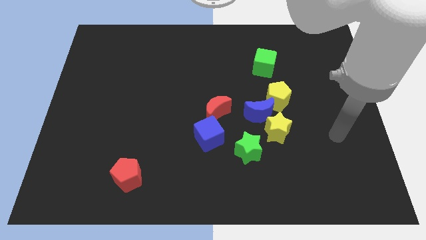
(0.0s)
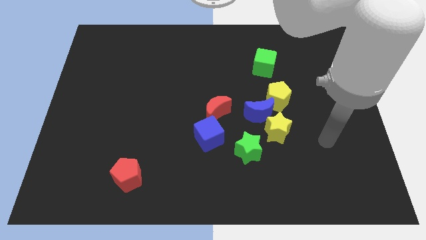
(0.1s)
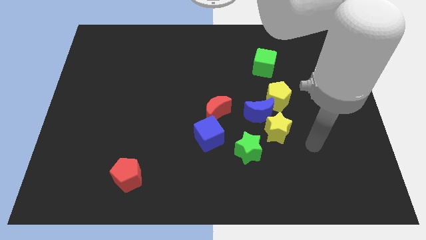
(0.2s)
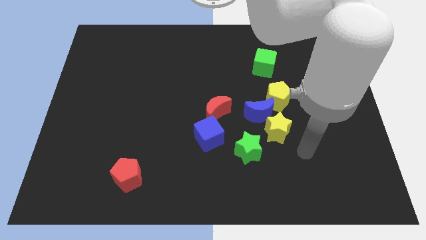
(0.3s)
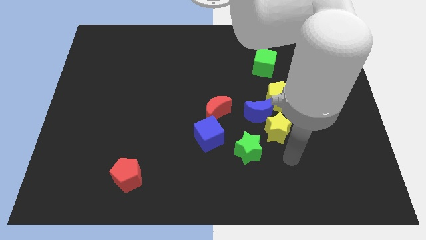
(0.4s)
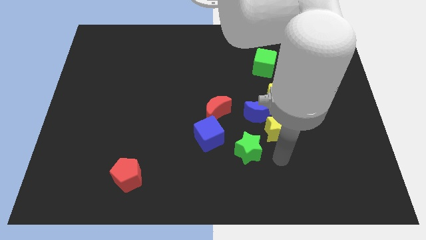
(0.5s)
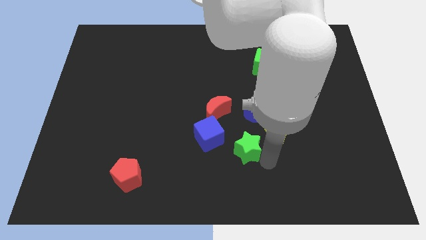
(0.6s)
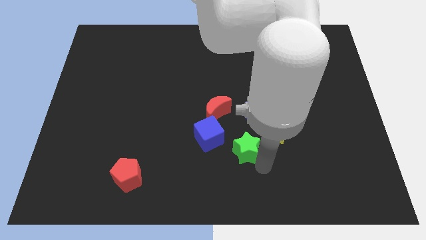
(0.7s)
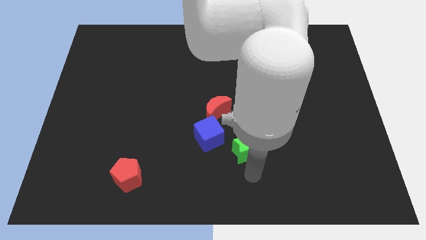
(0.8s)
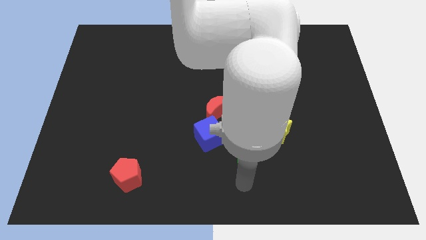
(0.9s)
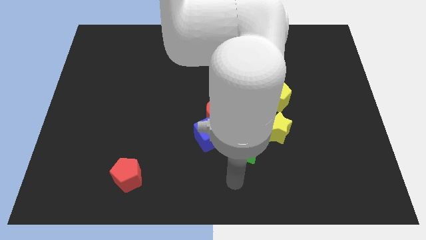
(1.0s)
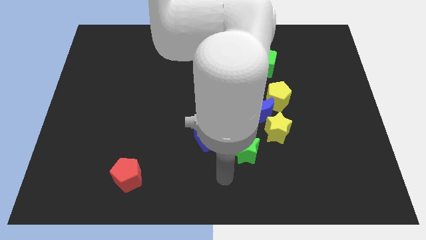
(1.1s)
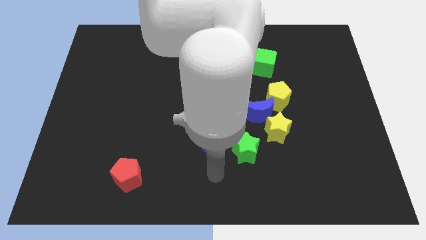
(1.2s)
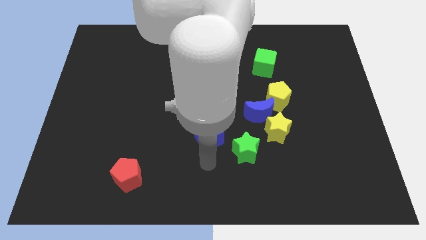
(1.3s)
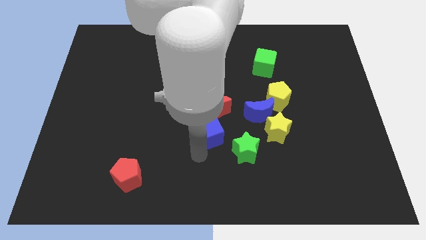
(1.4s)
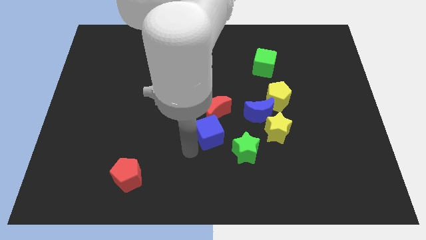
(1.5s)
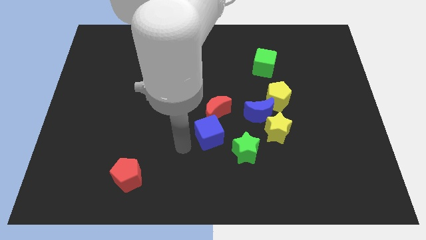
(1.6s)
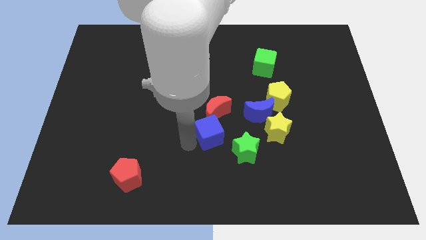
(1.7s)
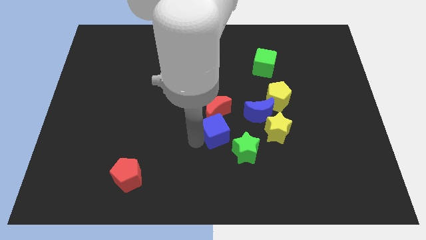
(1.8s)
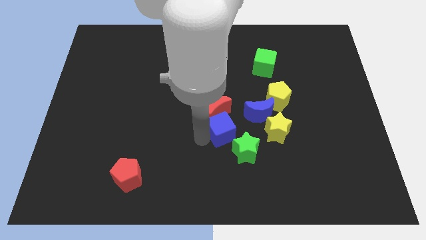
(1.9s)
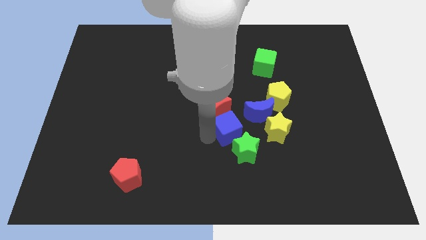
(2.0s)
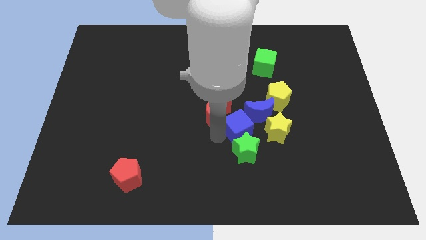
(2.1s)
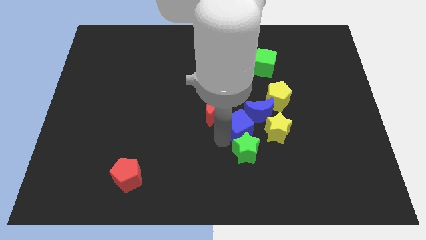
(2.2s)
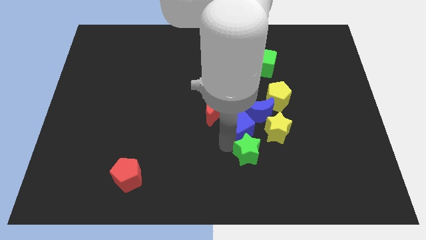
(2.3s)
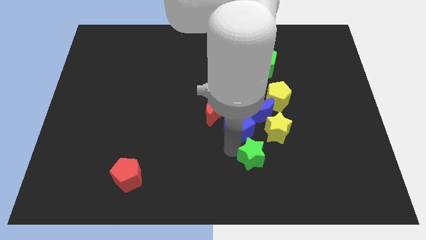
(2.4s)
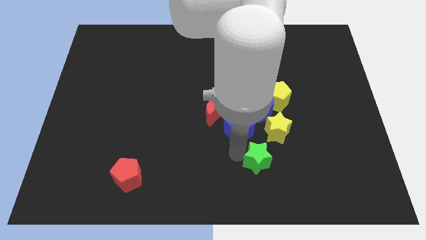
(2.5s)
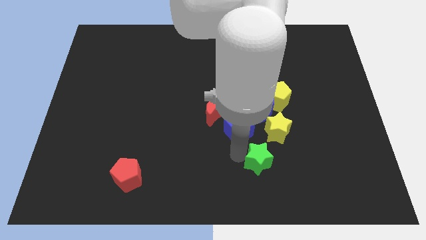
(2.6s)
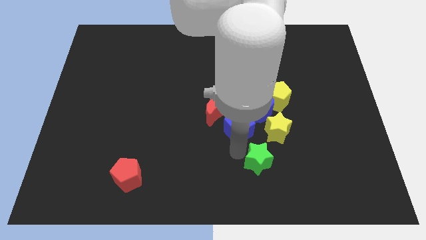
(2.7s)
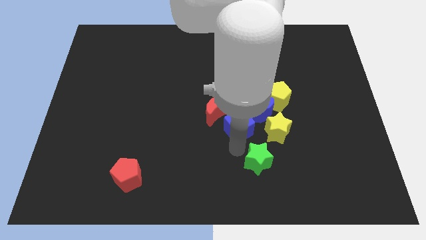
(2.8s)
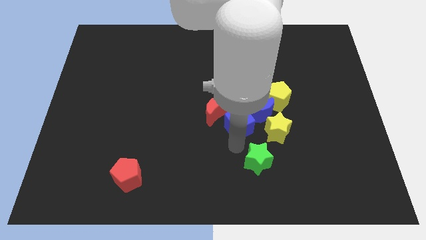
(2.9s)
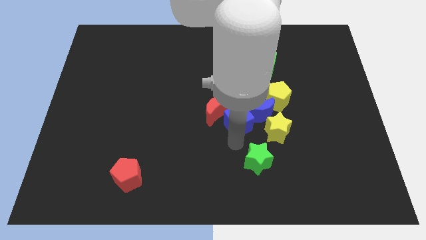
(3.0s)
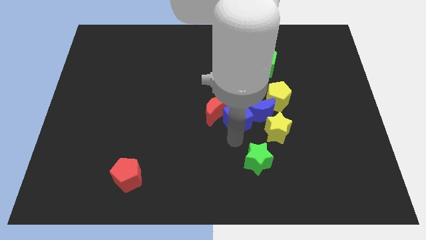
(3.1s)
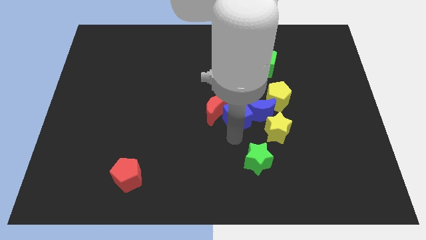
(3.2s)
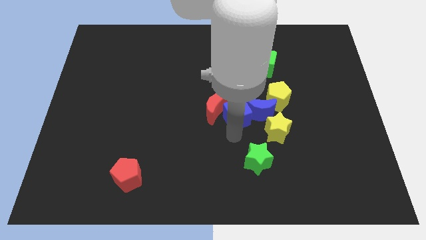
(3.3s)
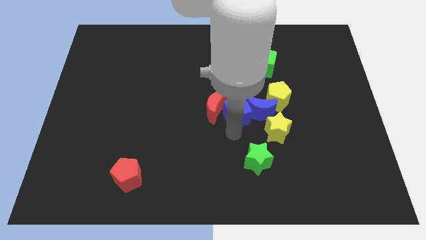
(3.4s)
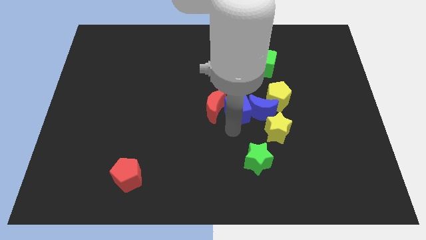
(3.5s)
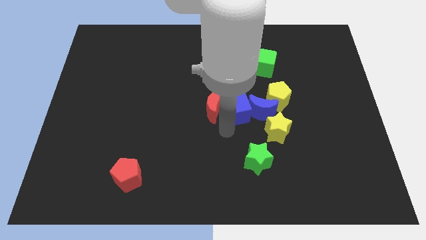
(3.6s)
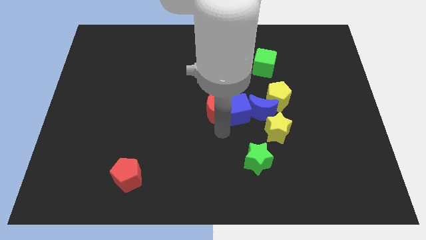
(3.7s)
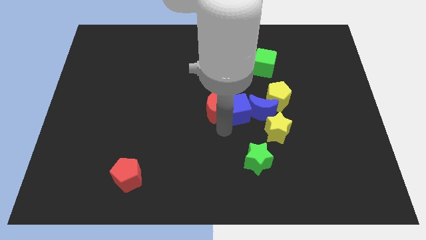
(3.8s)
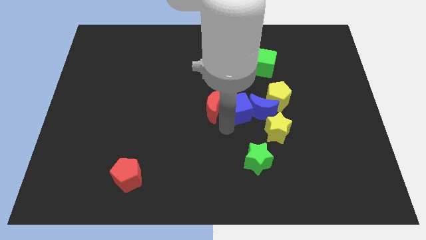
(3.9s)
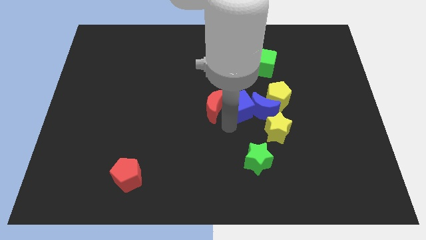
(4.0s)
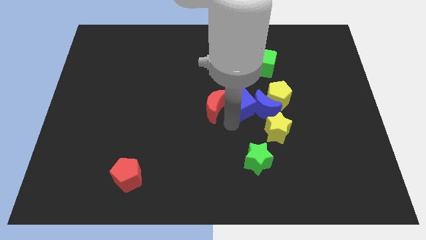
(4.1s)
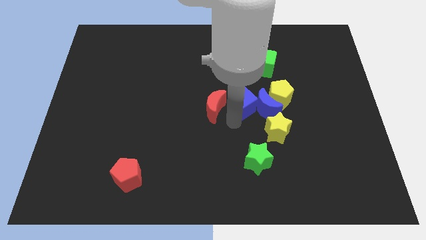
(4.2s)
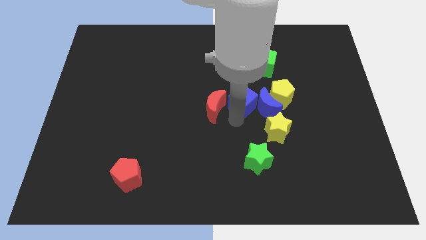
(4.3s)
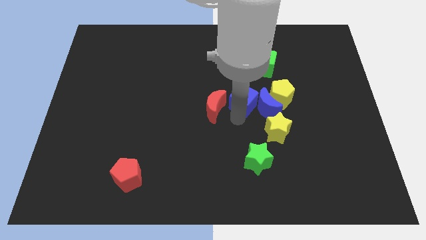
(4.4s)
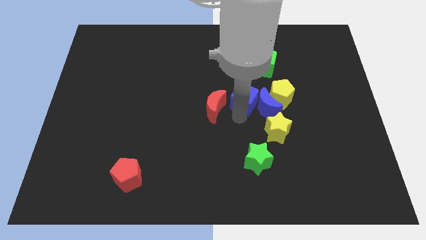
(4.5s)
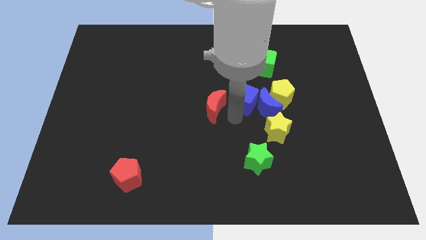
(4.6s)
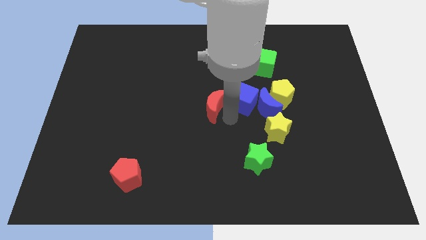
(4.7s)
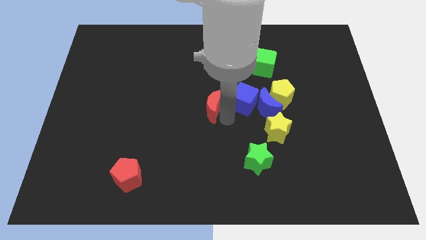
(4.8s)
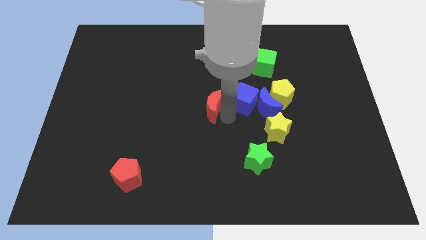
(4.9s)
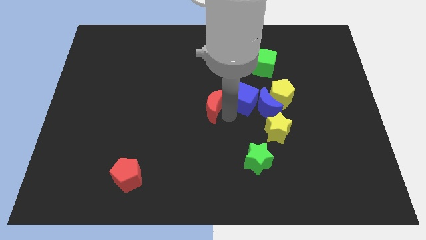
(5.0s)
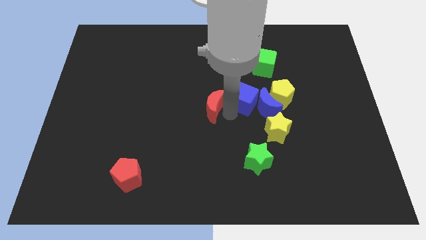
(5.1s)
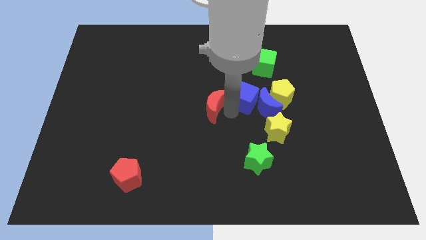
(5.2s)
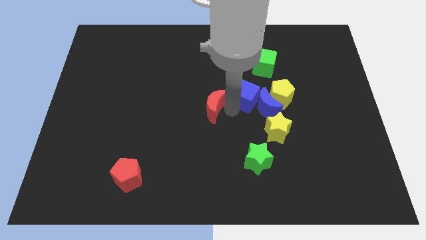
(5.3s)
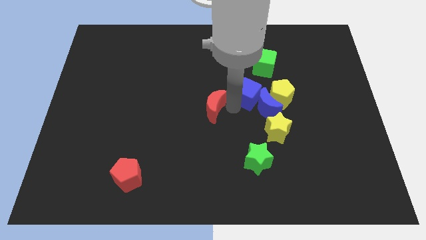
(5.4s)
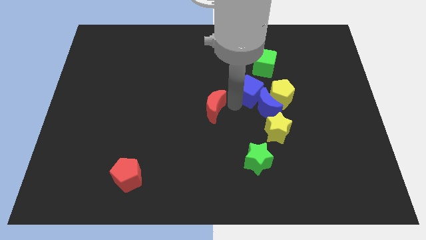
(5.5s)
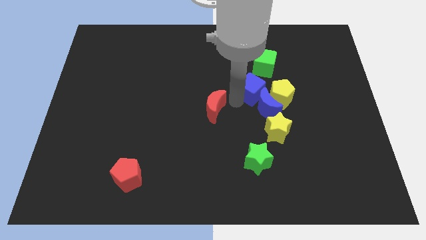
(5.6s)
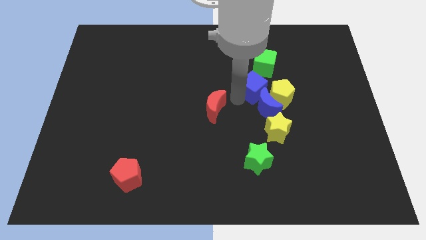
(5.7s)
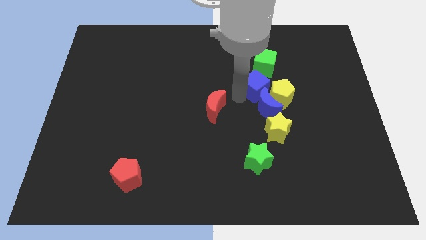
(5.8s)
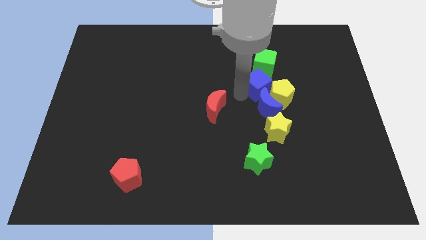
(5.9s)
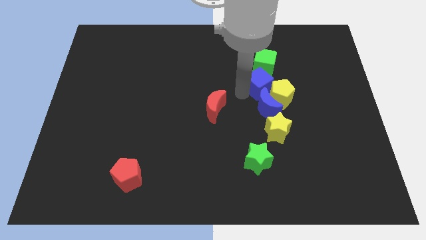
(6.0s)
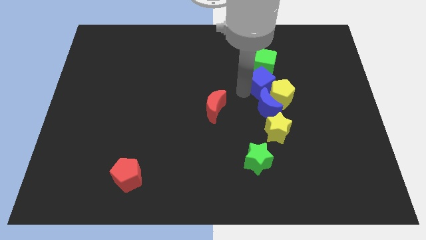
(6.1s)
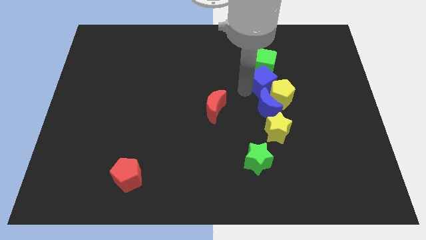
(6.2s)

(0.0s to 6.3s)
slide the blue cube up and right diagonally

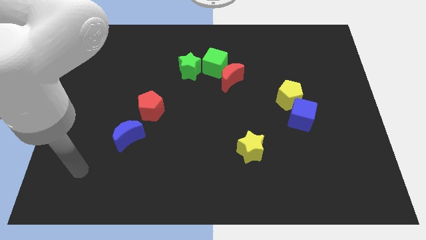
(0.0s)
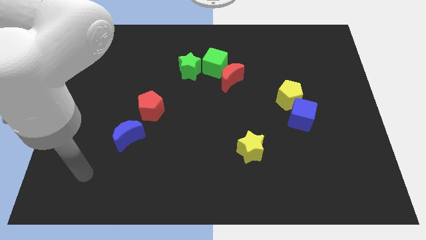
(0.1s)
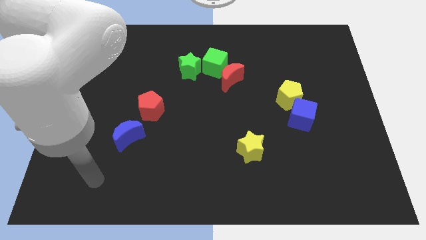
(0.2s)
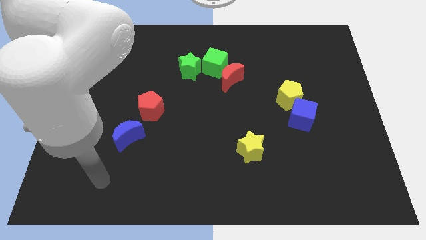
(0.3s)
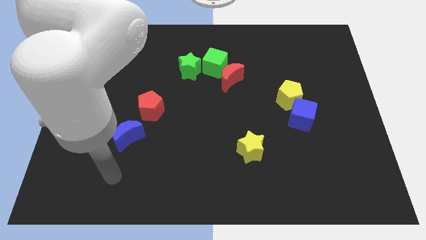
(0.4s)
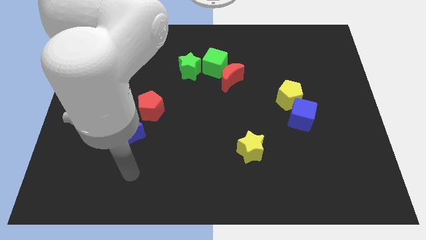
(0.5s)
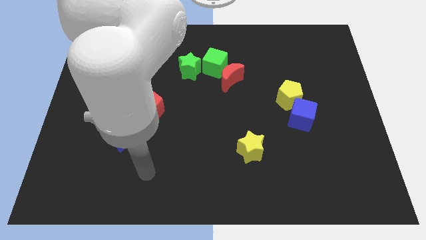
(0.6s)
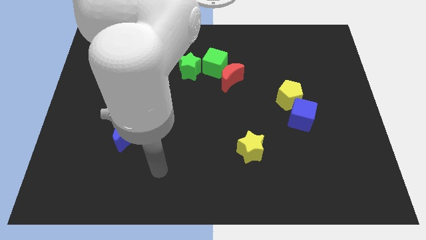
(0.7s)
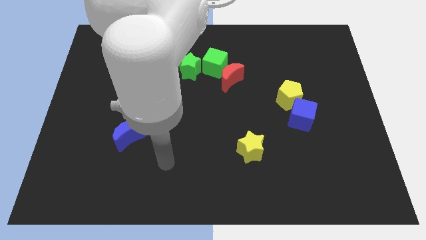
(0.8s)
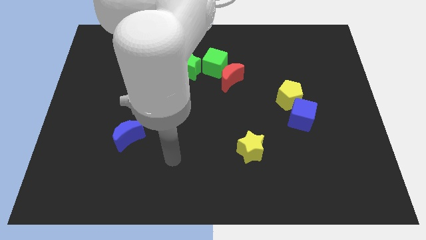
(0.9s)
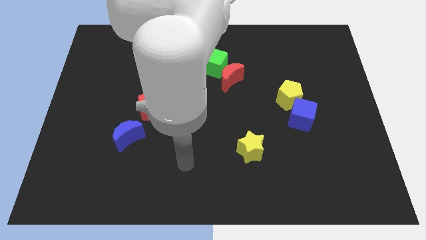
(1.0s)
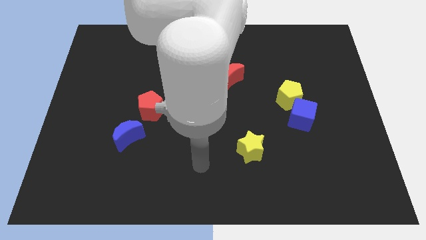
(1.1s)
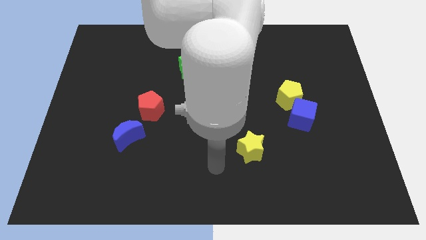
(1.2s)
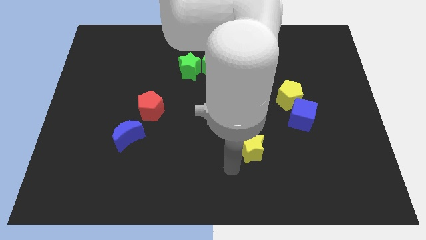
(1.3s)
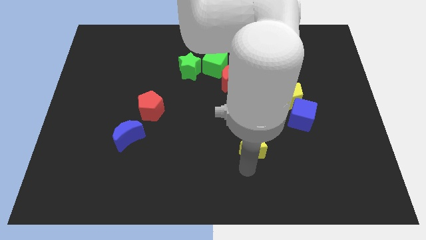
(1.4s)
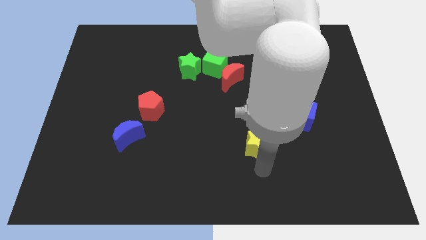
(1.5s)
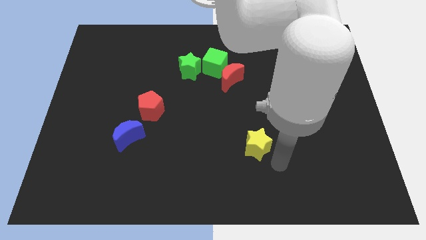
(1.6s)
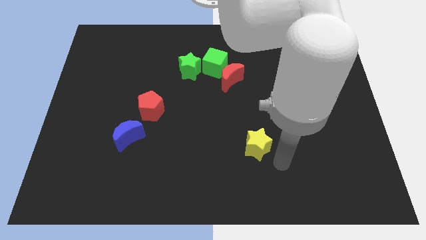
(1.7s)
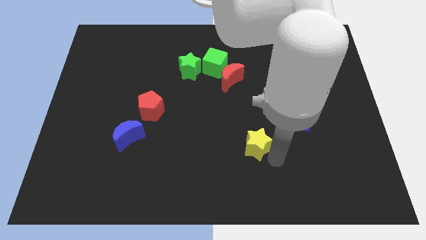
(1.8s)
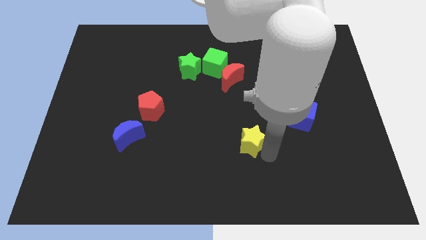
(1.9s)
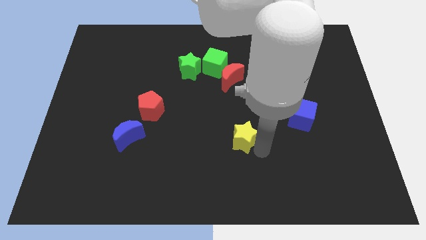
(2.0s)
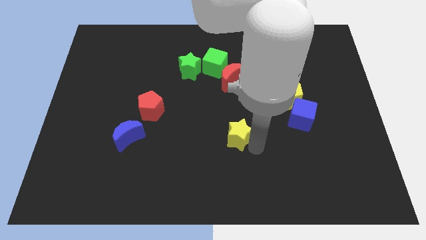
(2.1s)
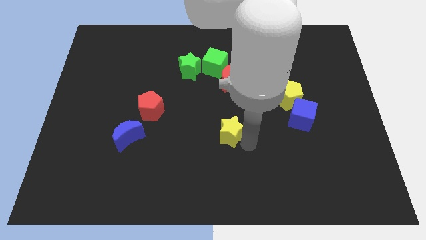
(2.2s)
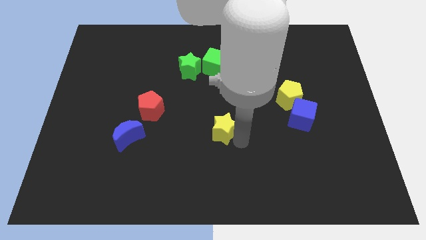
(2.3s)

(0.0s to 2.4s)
push the yellow star up and left a bit
